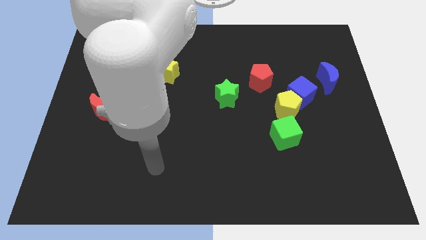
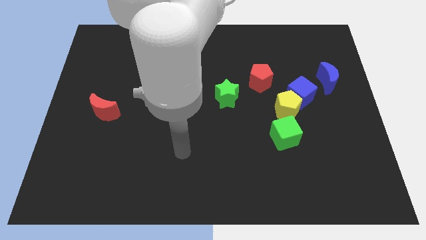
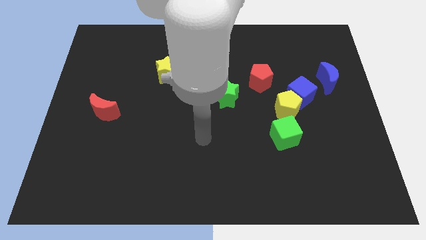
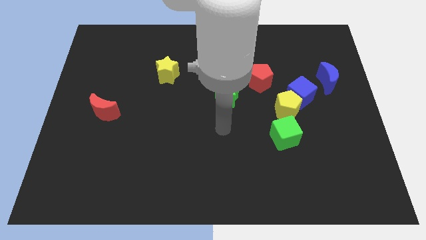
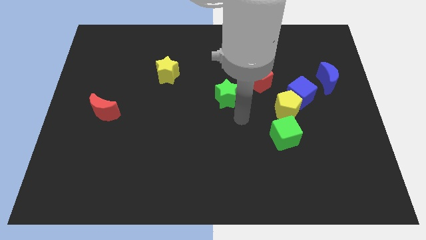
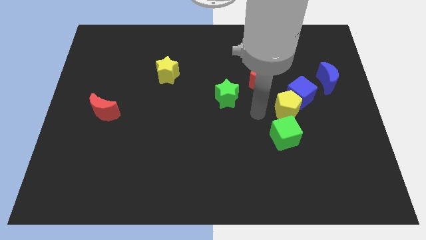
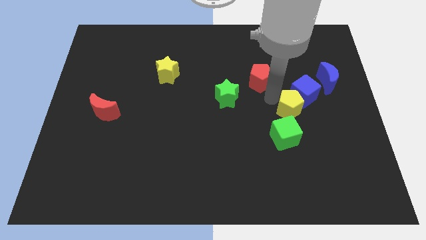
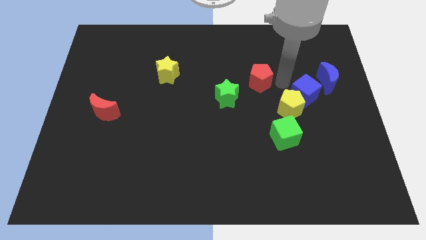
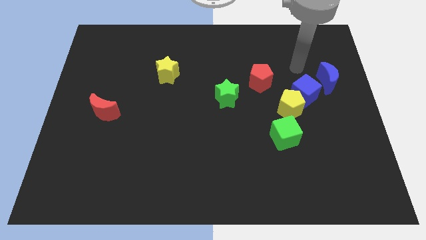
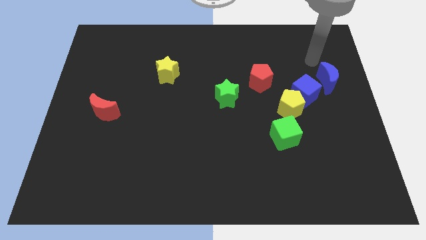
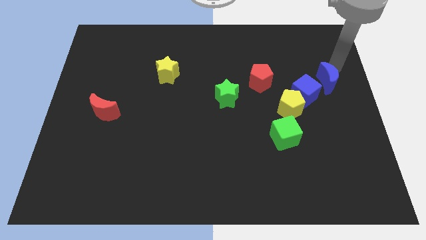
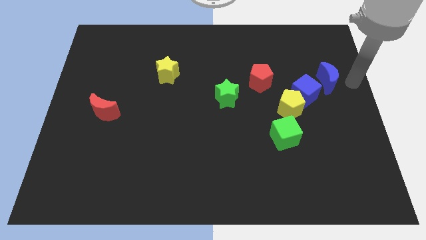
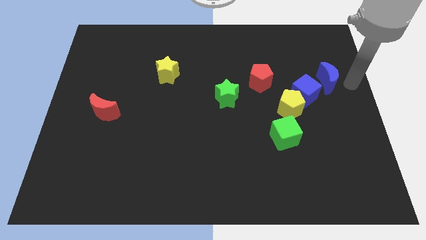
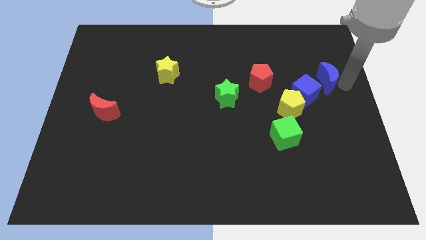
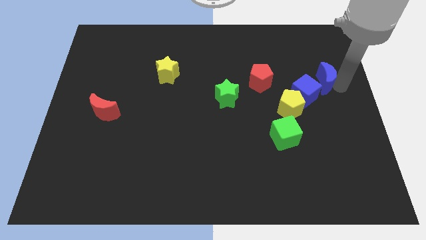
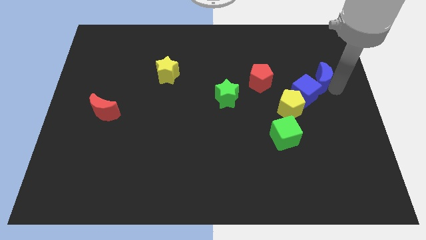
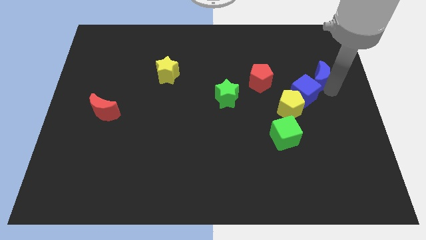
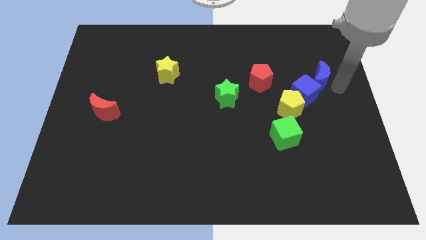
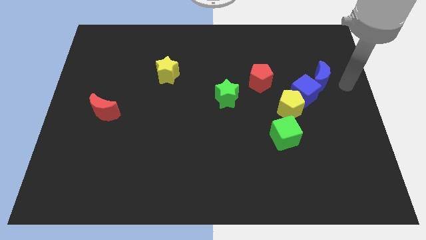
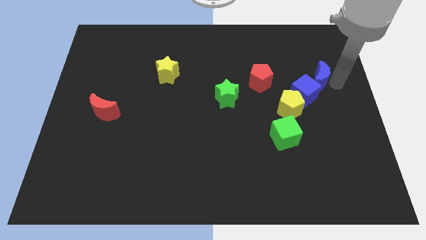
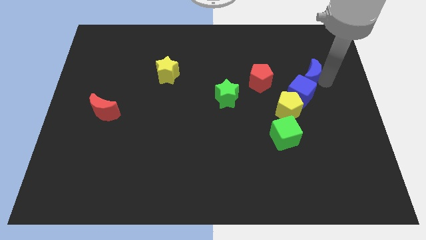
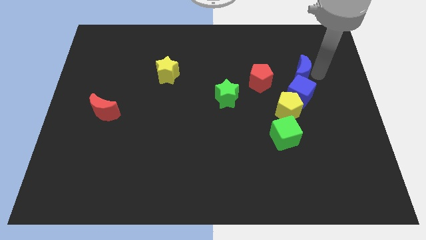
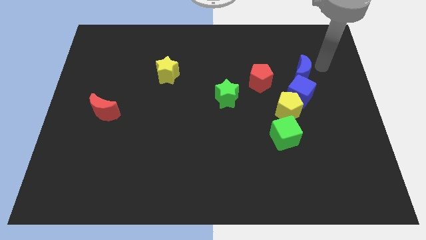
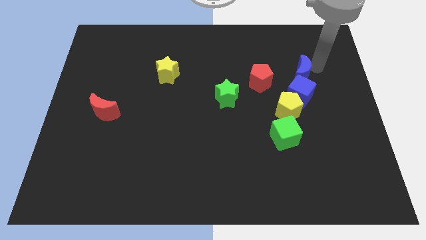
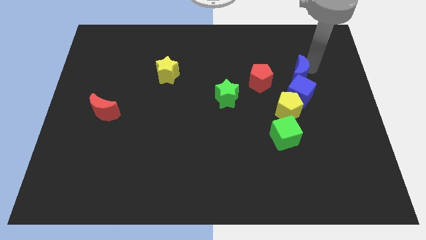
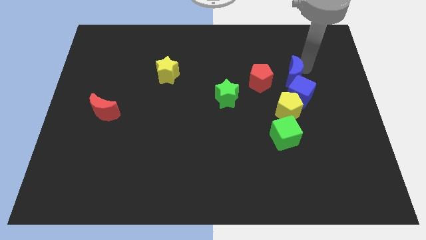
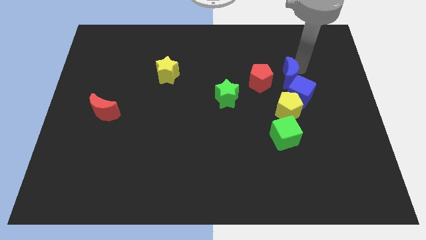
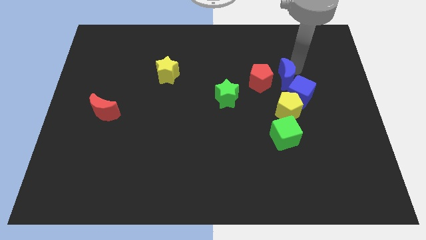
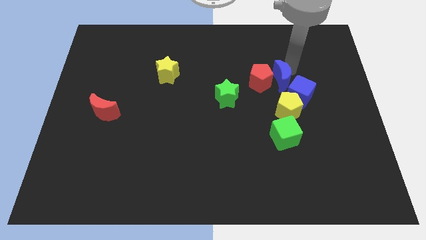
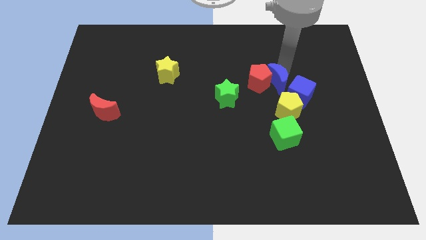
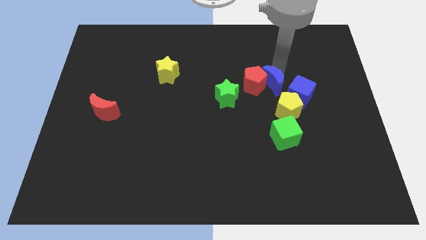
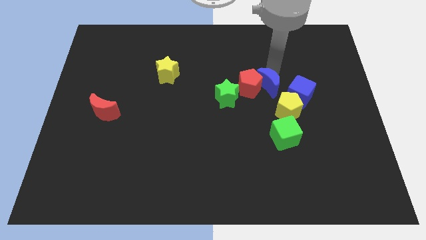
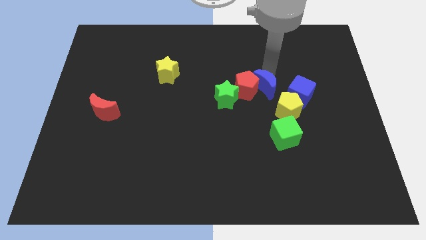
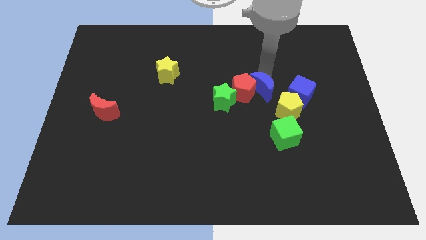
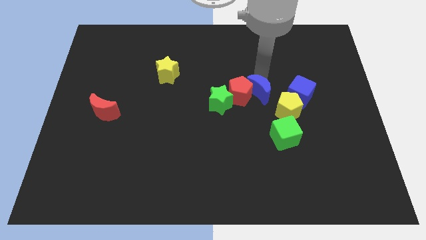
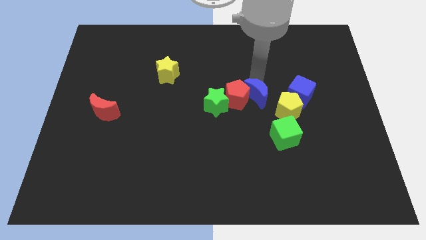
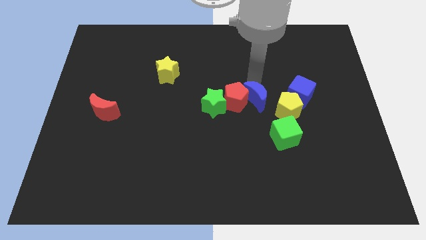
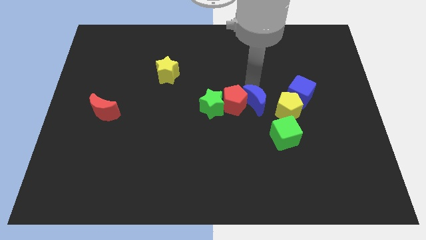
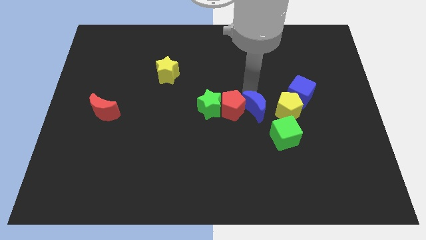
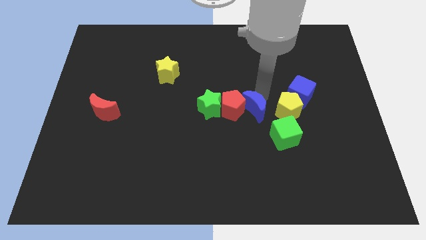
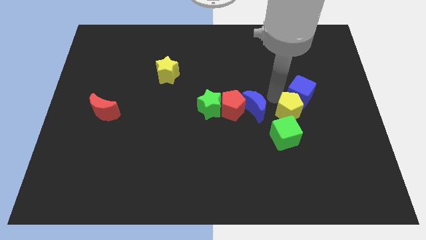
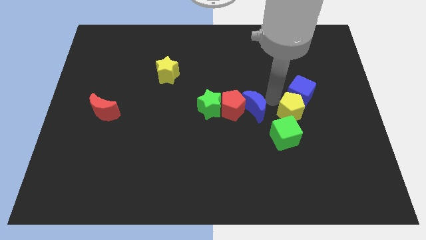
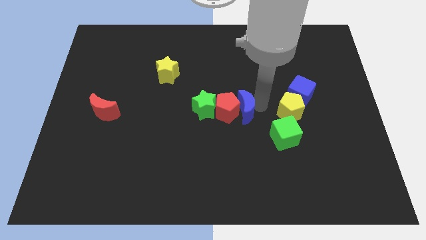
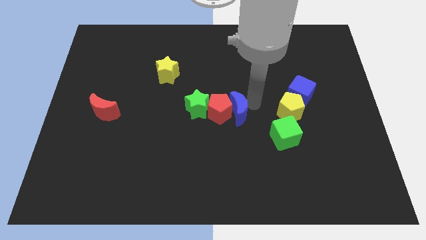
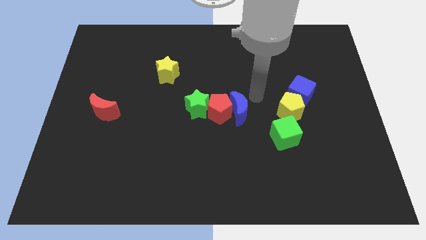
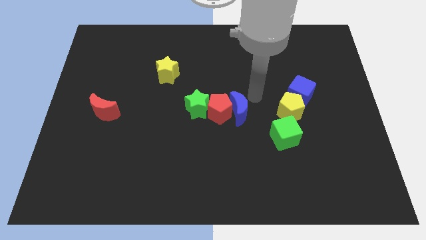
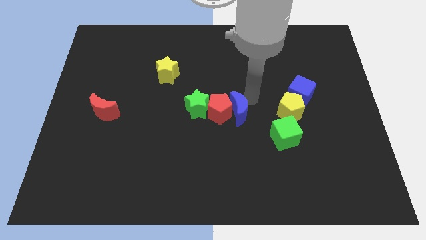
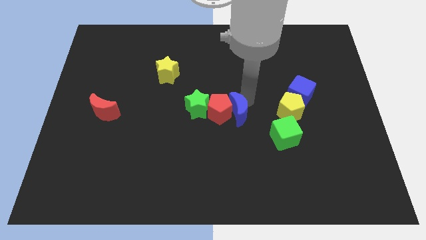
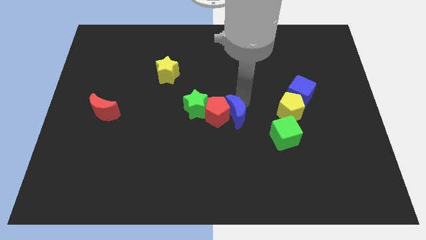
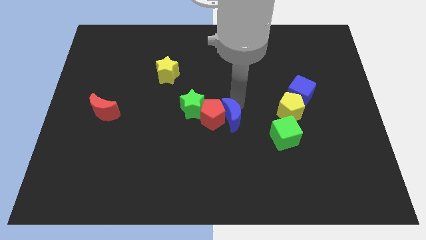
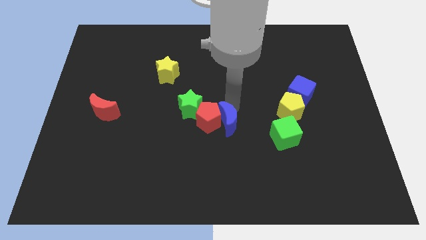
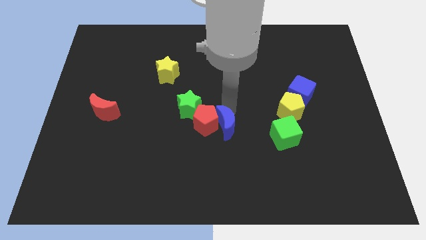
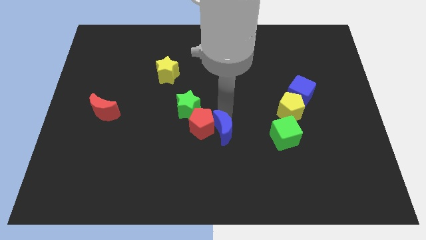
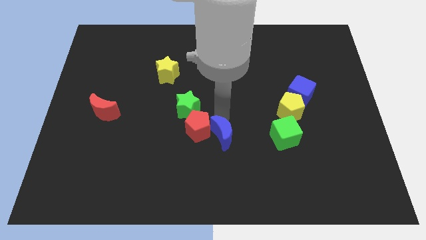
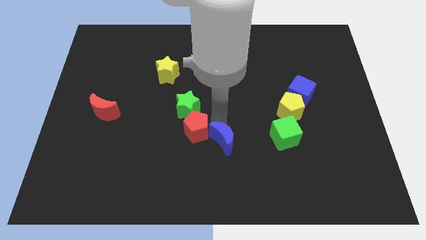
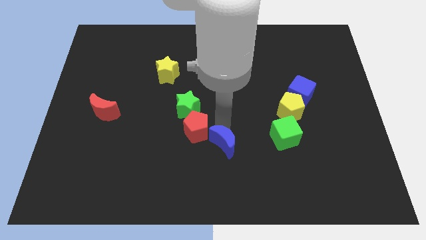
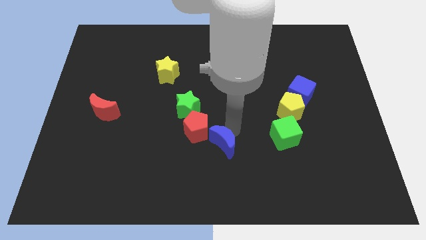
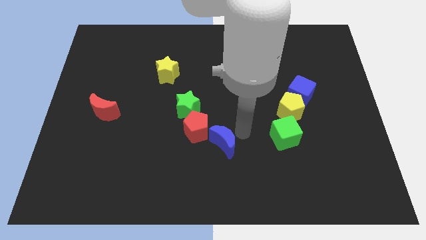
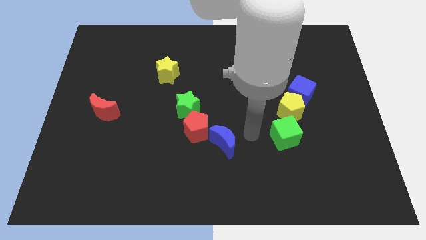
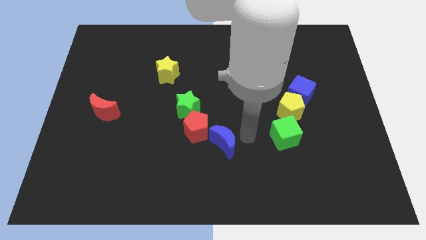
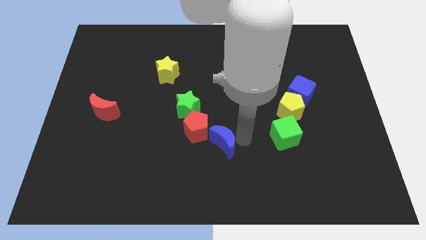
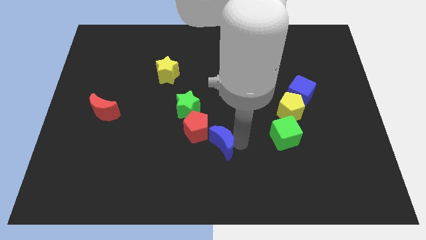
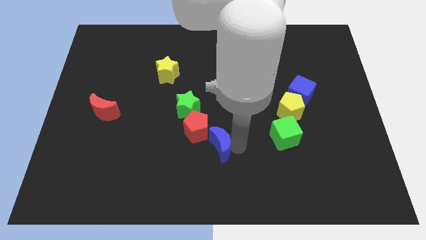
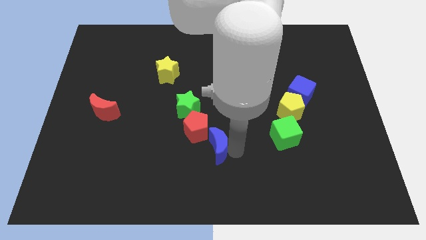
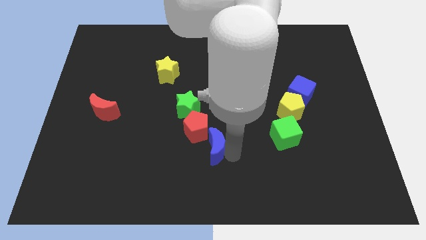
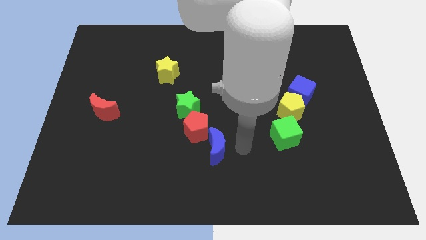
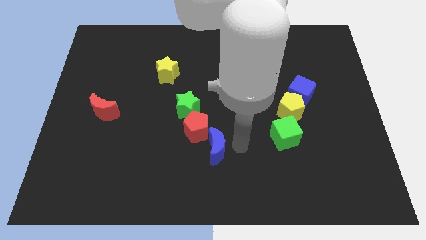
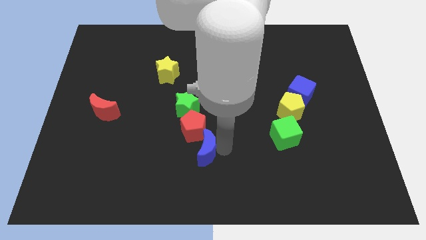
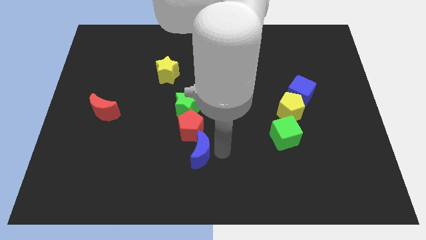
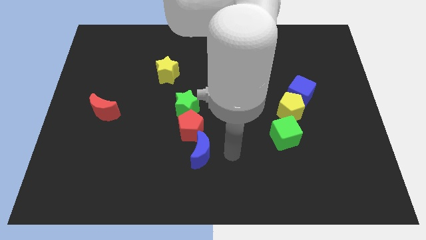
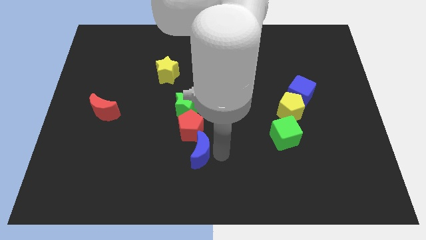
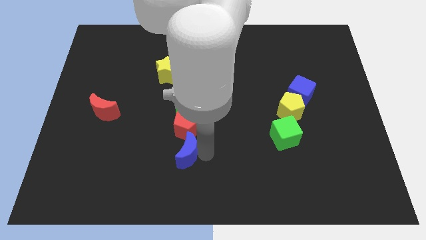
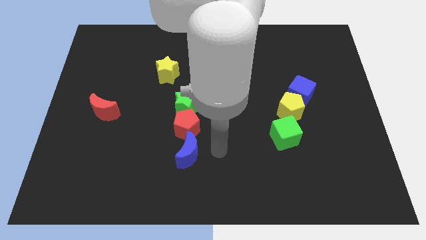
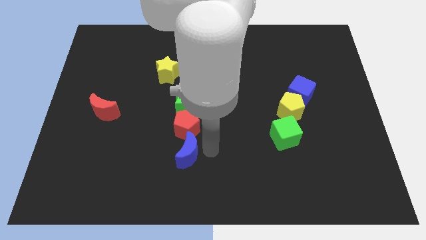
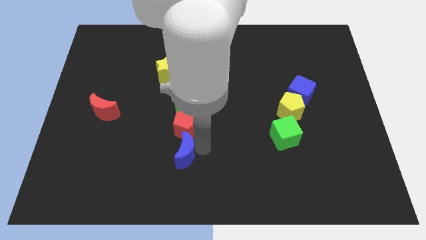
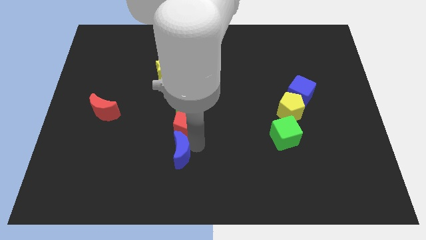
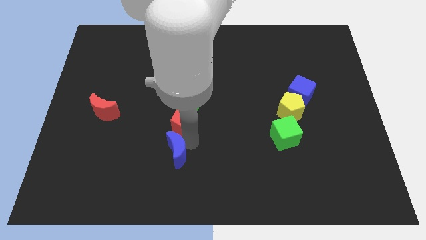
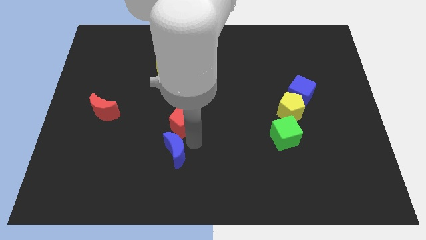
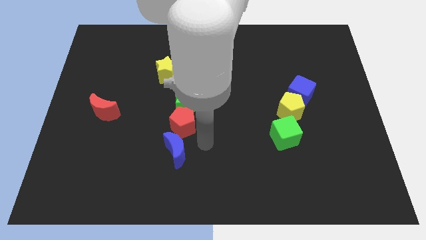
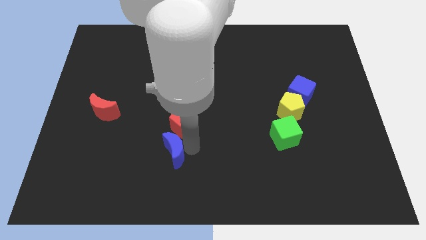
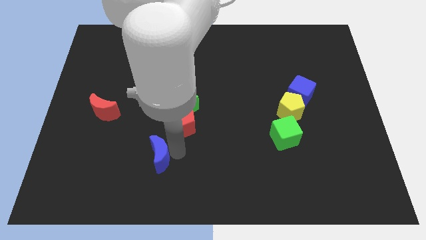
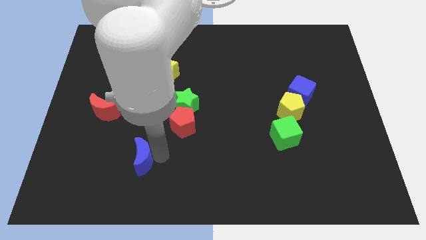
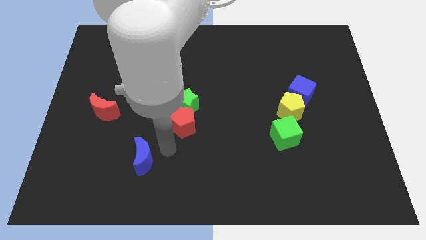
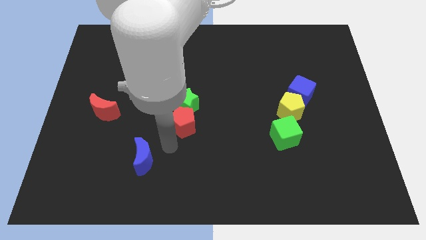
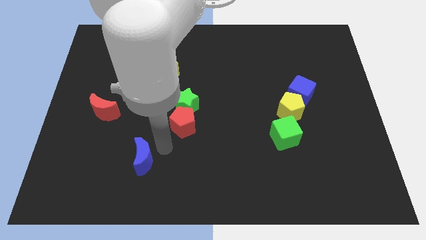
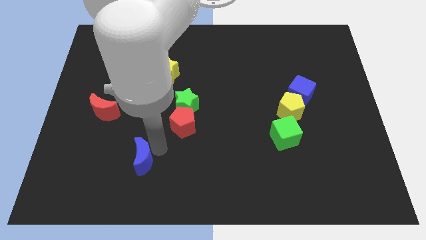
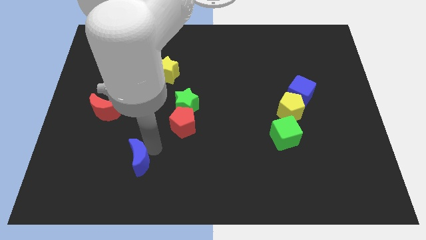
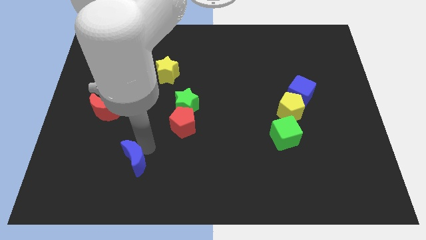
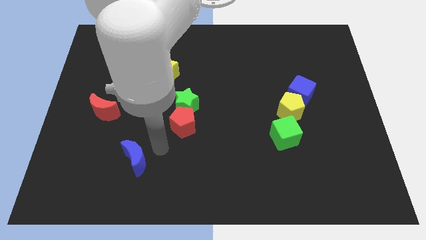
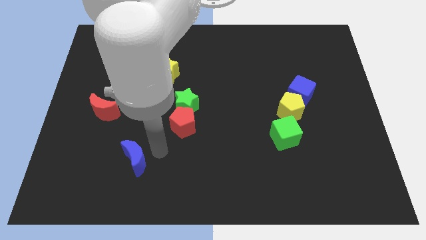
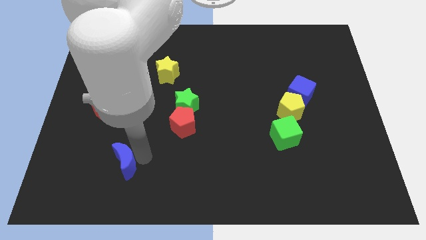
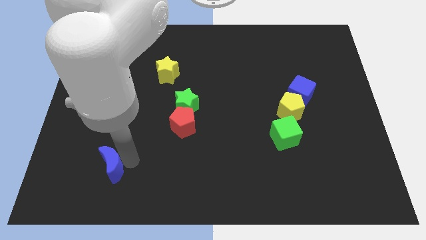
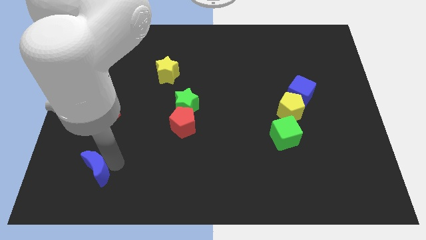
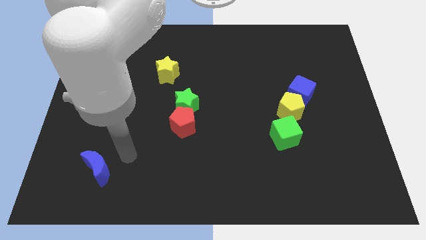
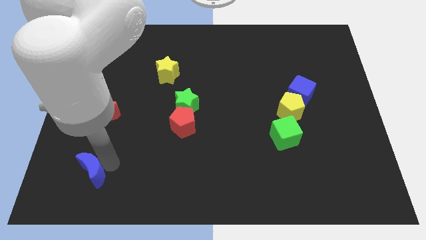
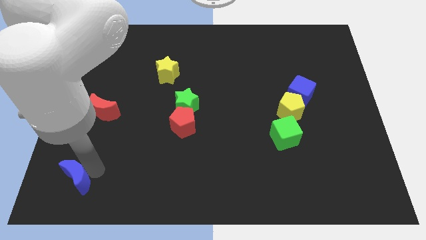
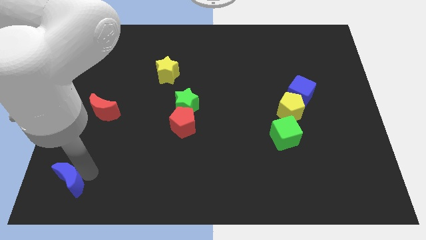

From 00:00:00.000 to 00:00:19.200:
put the blue moon to the bottom left
